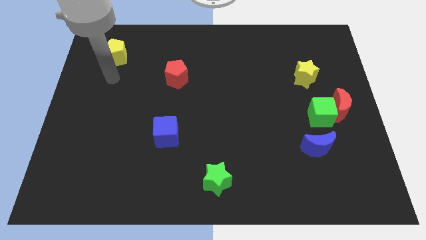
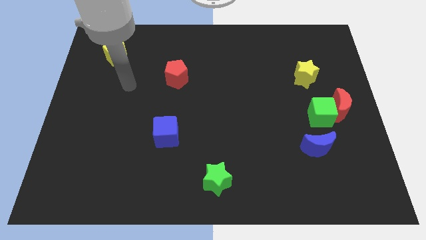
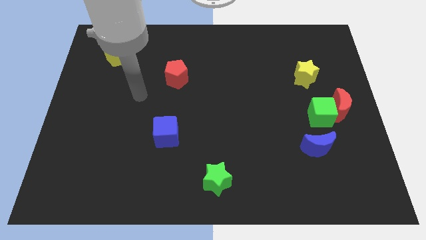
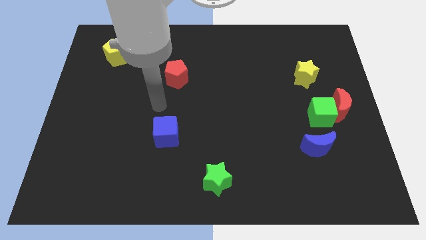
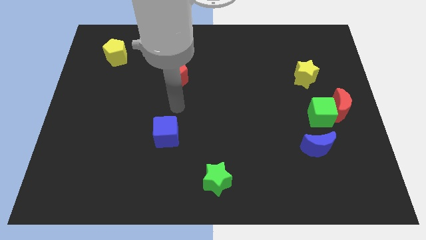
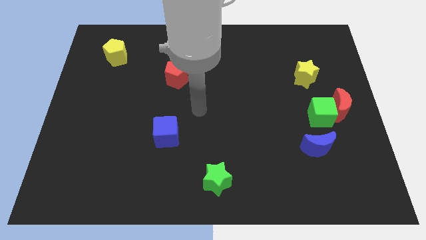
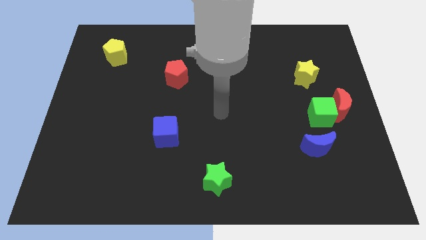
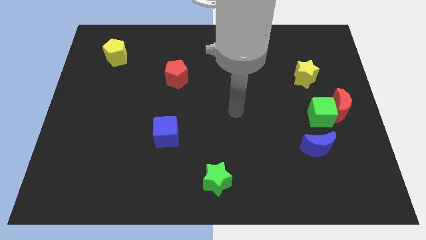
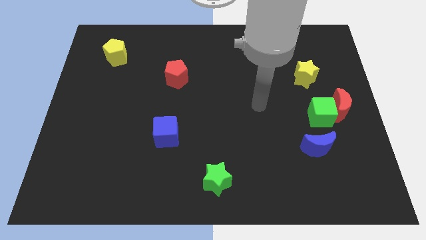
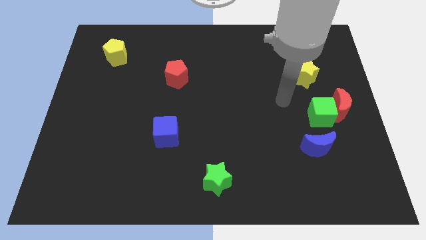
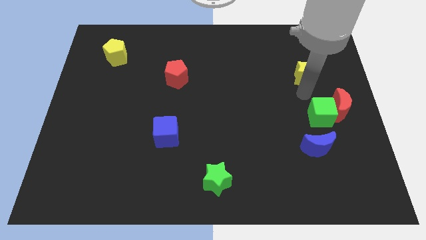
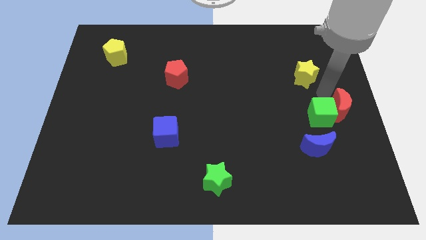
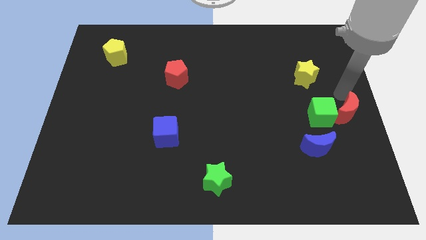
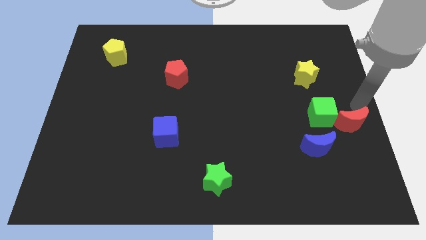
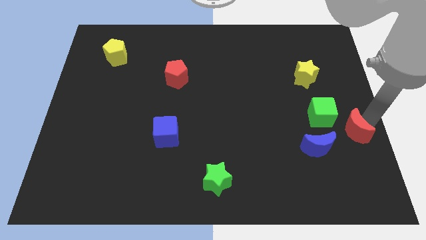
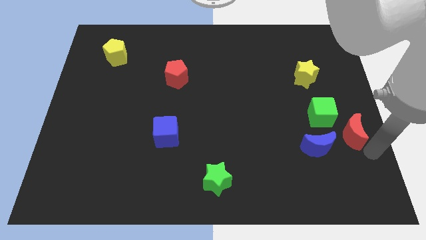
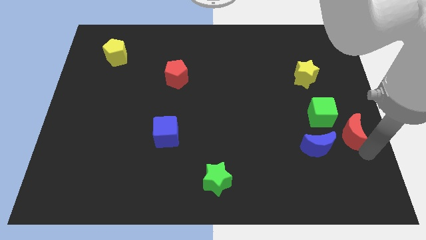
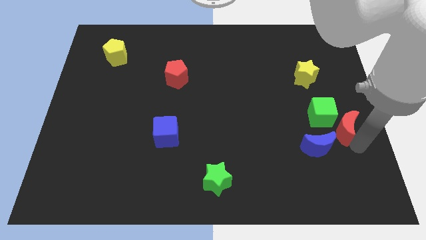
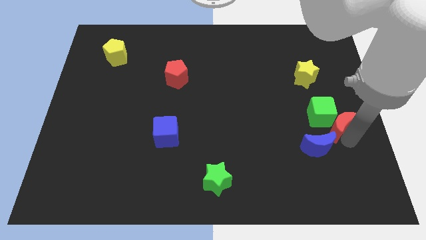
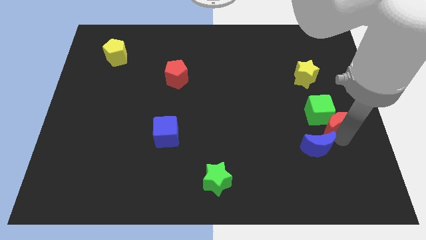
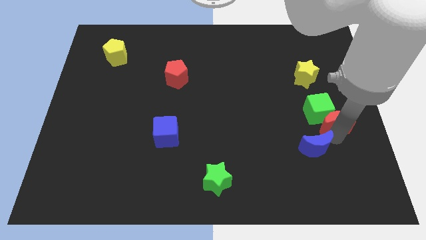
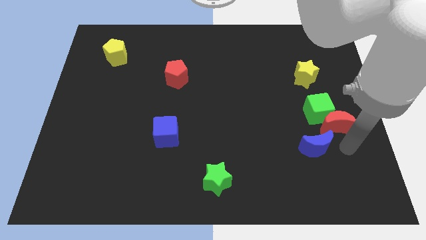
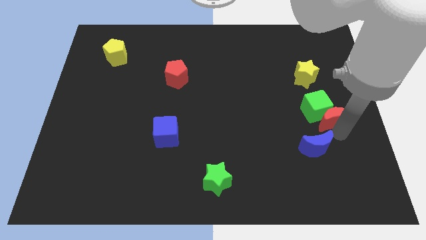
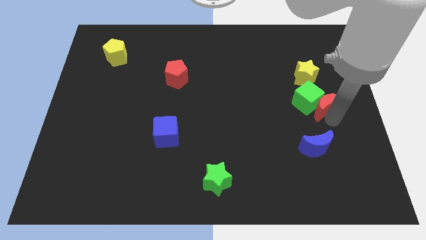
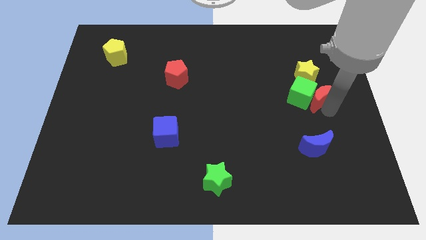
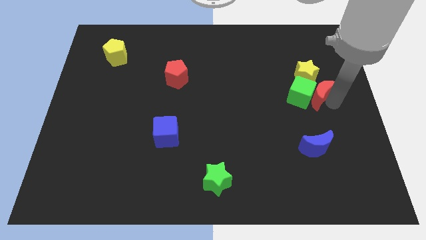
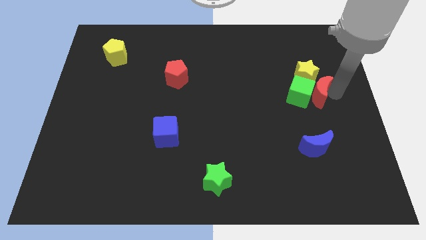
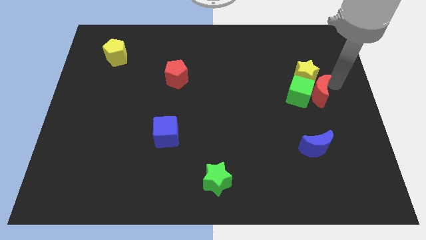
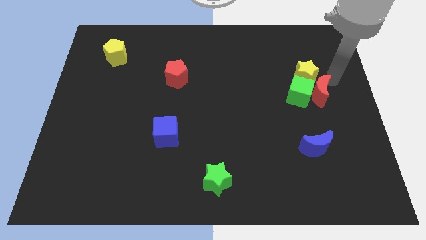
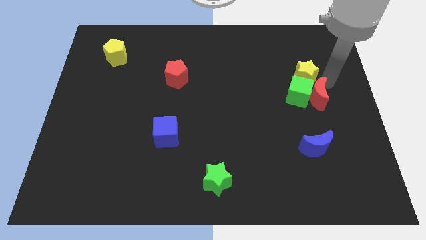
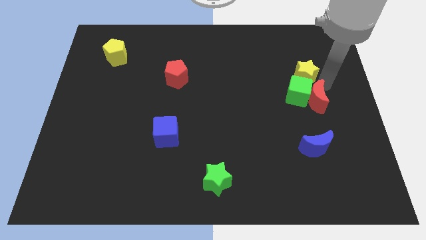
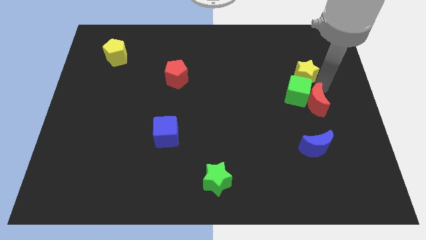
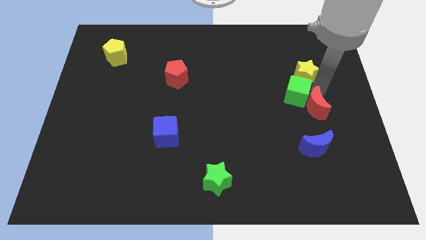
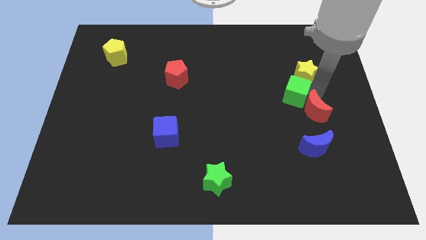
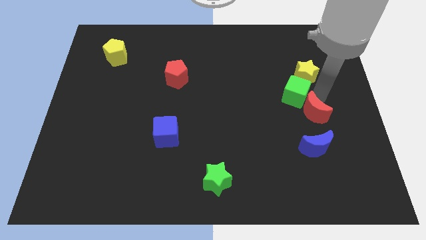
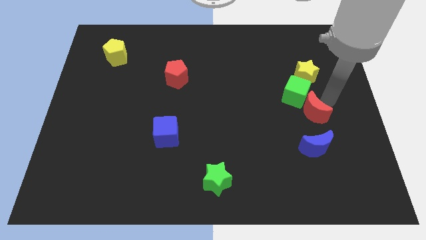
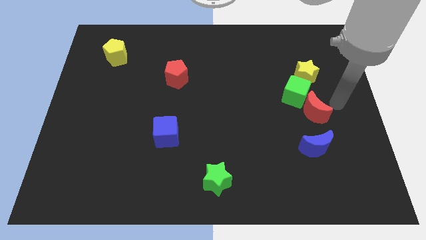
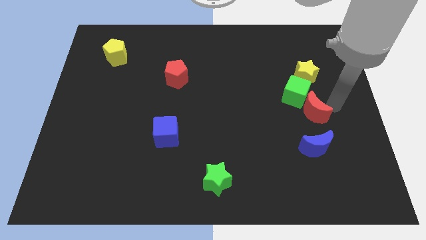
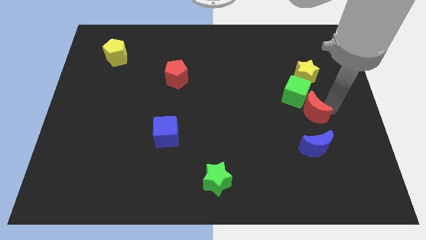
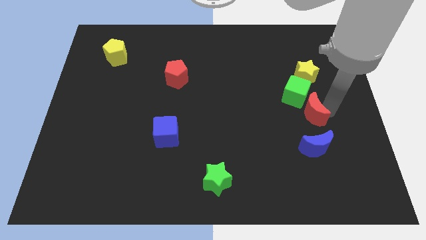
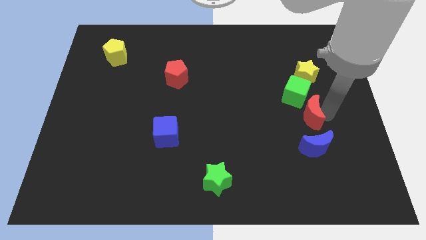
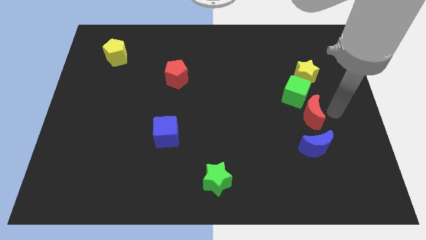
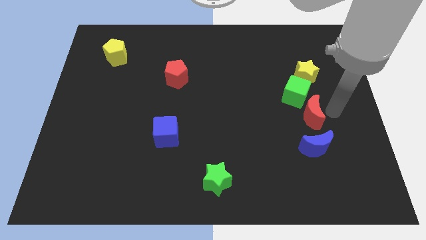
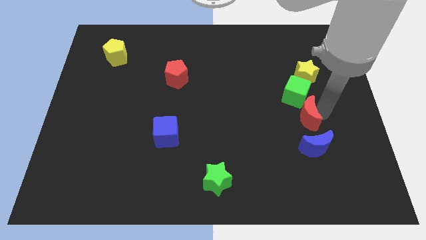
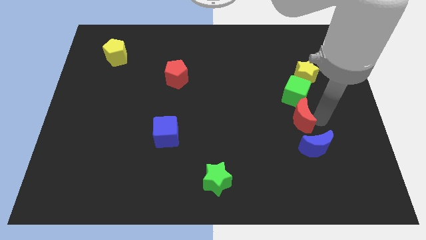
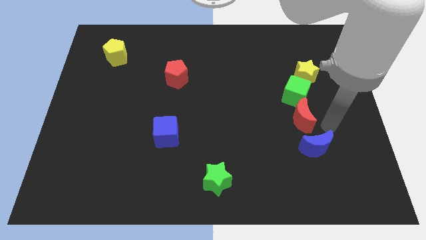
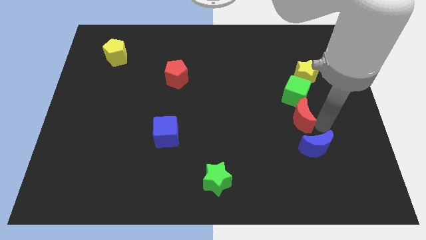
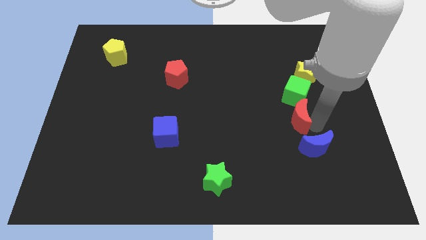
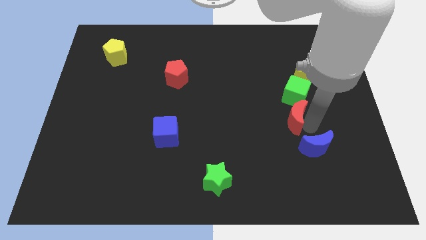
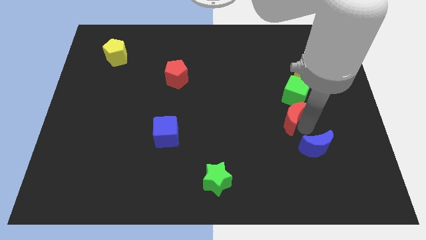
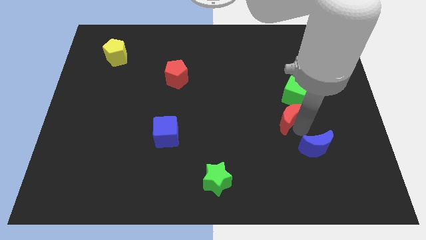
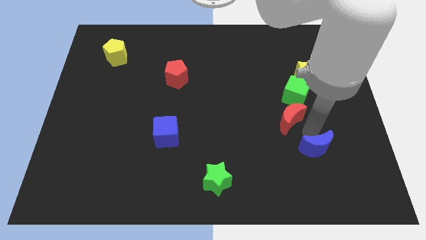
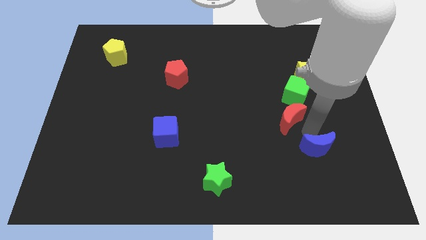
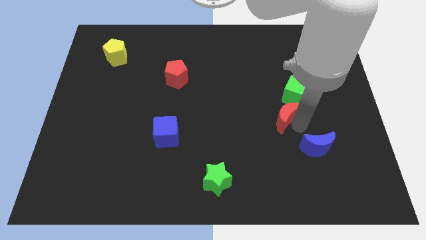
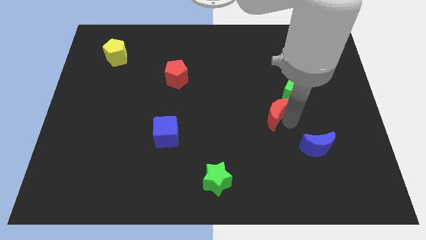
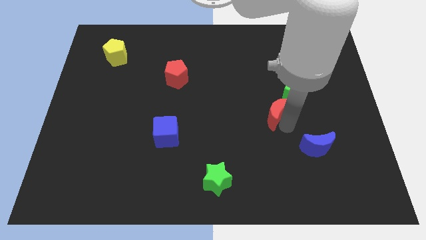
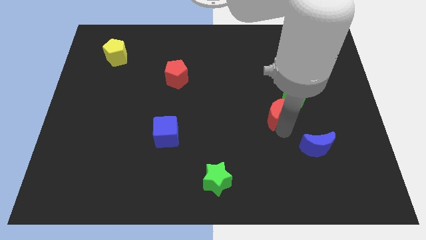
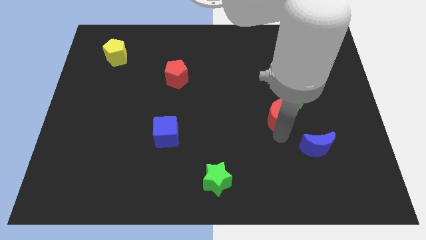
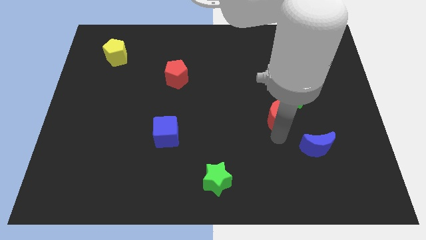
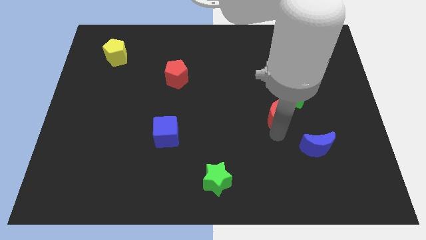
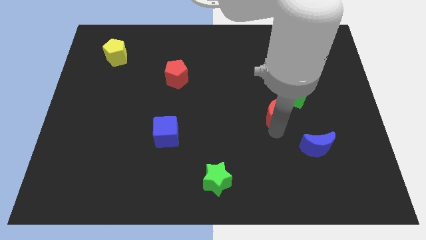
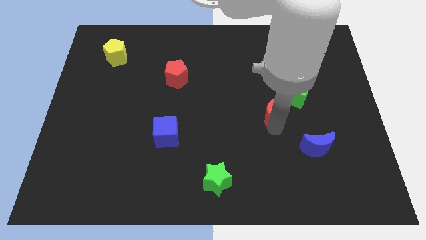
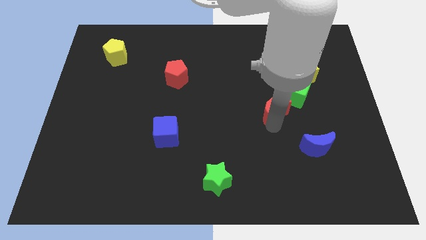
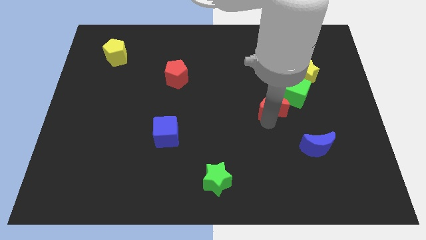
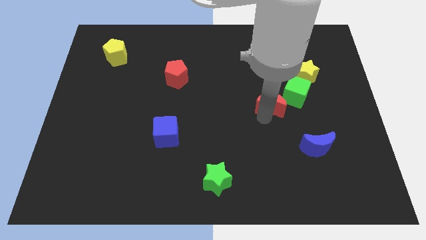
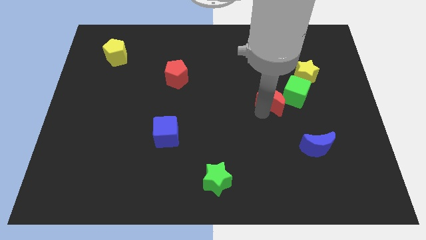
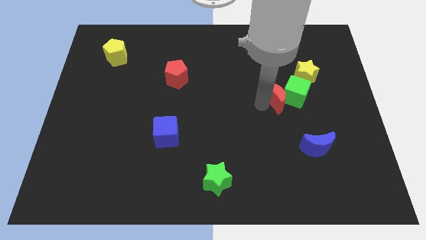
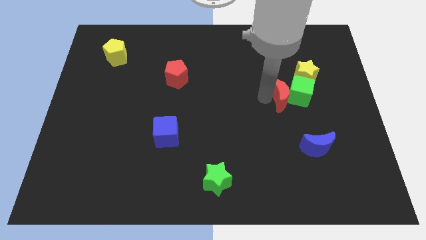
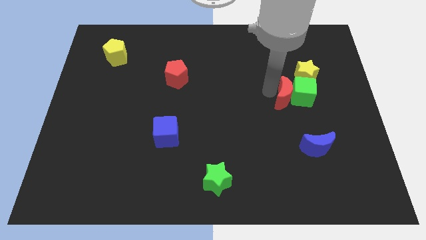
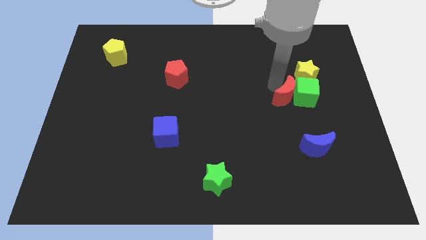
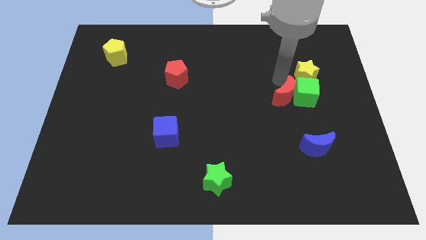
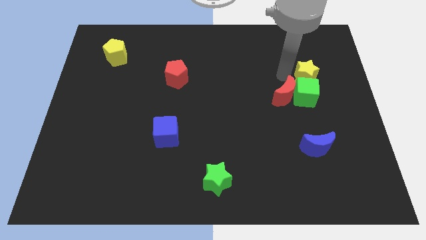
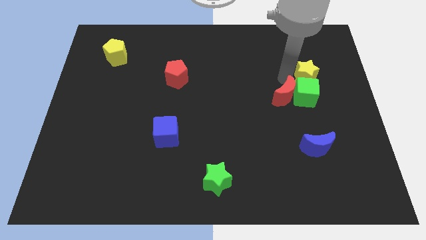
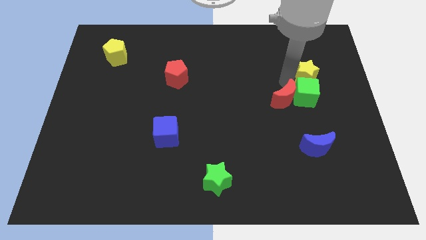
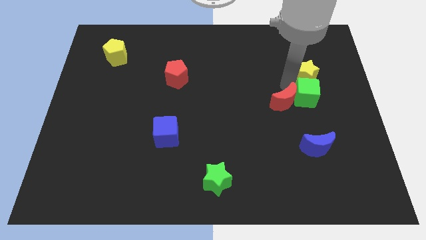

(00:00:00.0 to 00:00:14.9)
push the red moon to the bottom left side of the green cube

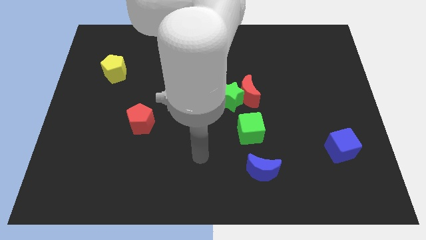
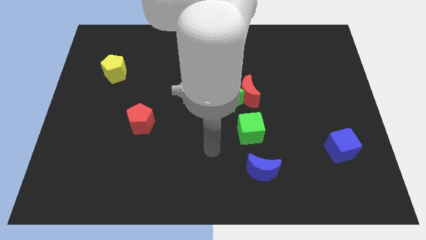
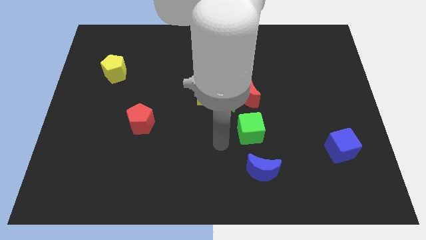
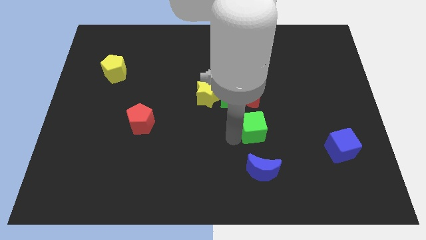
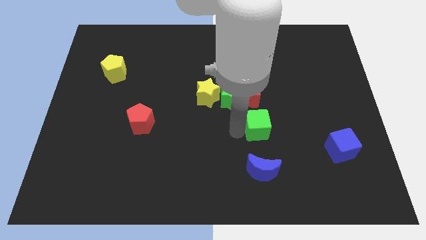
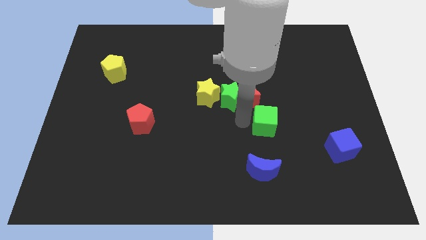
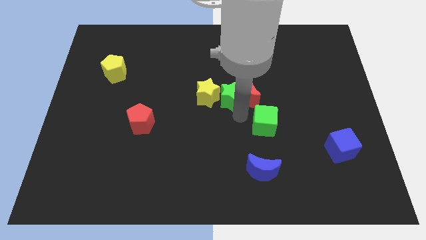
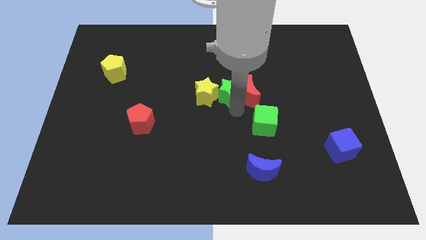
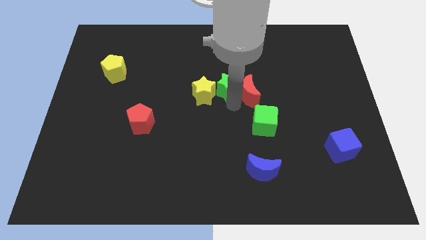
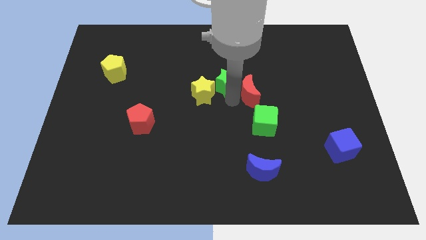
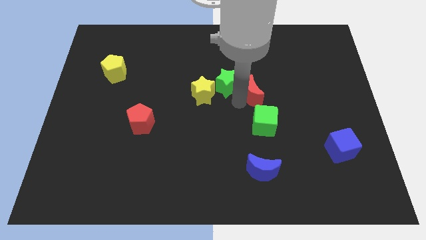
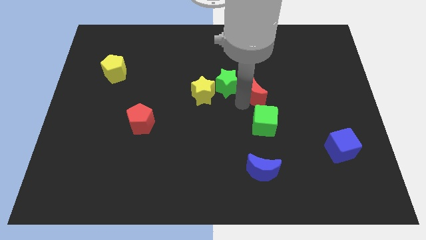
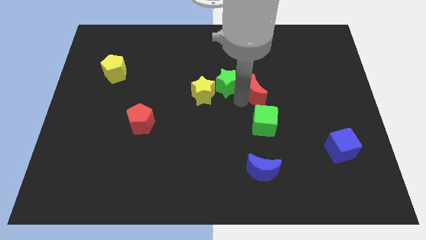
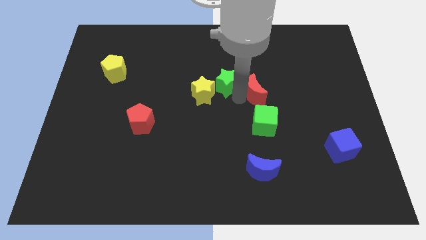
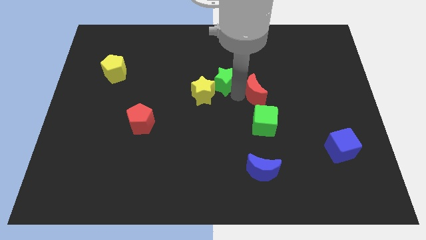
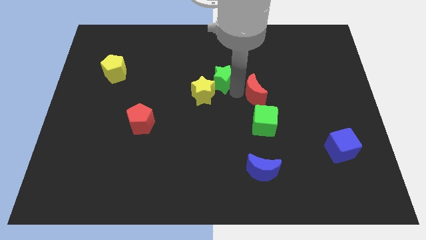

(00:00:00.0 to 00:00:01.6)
put the green star to the top side of the yellow star
